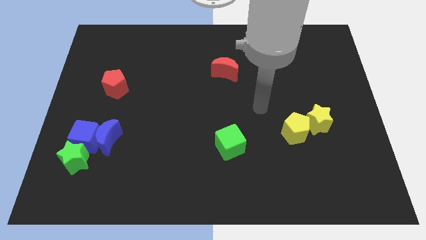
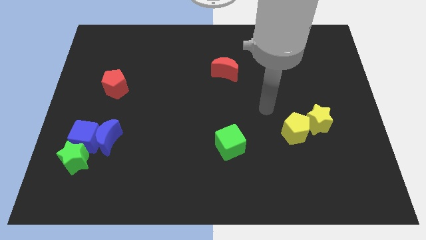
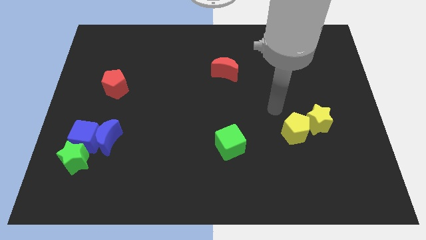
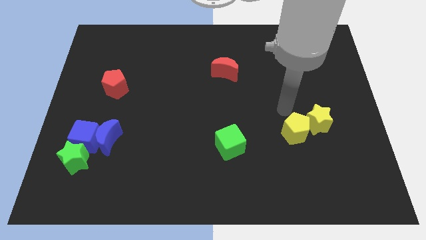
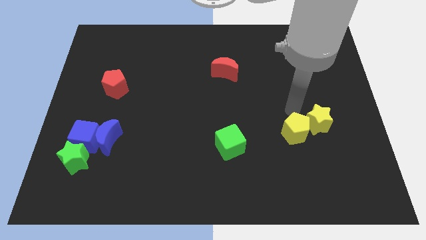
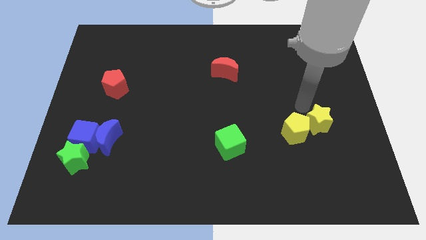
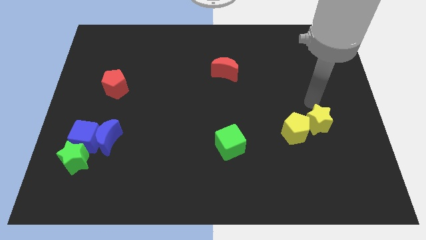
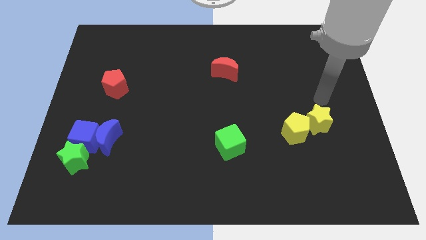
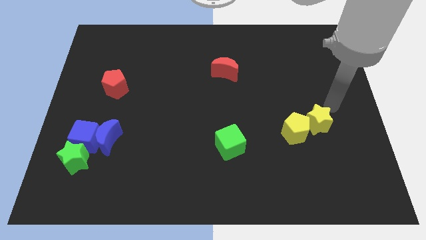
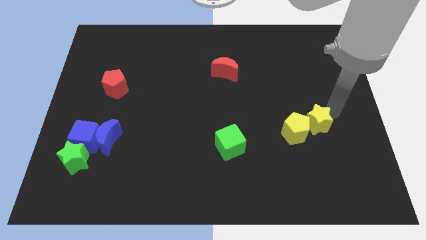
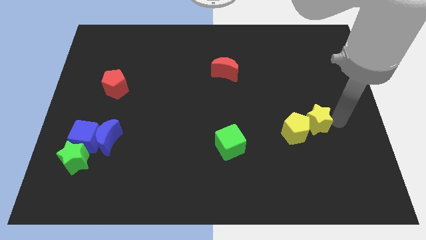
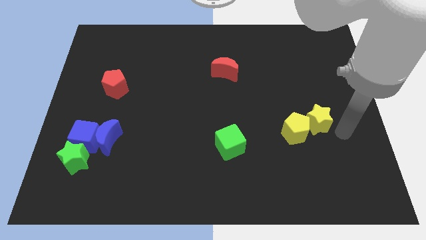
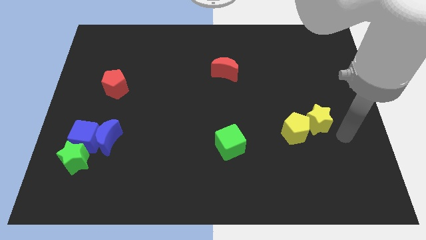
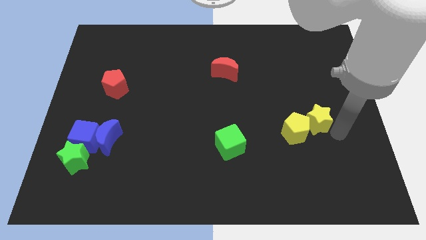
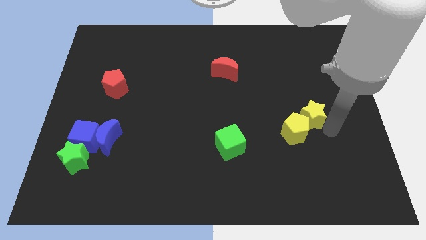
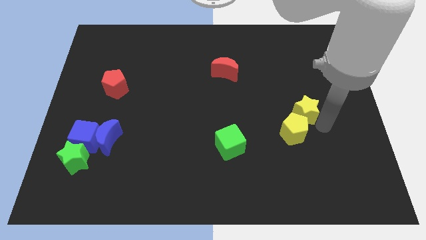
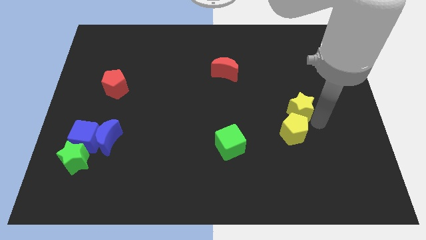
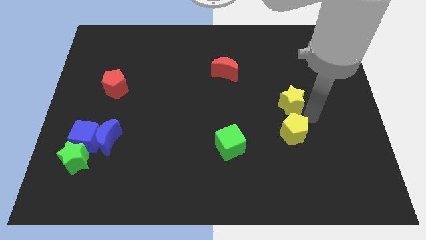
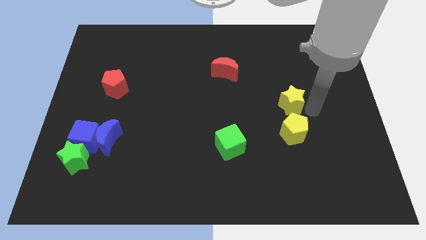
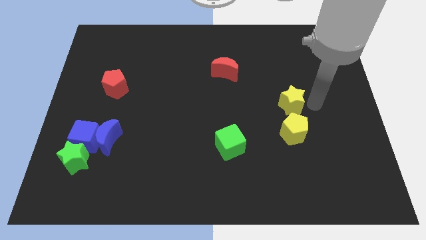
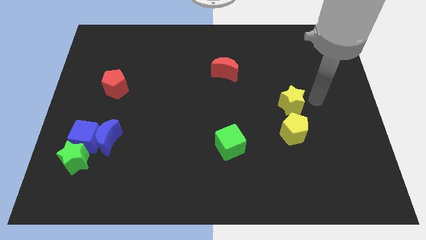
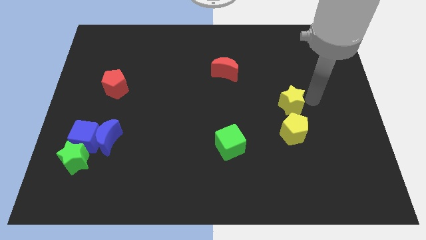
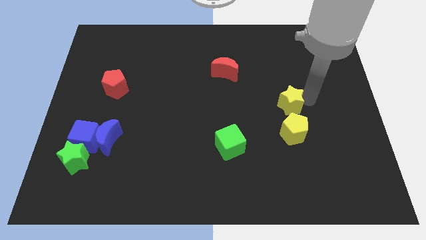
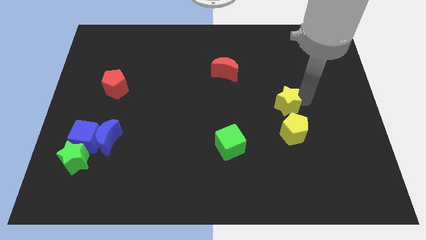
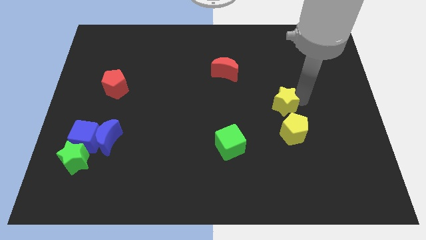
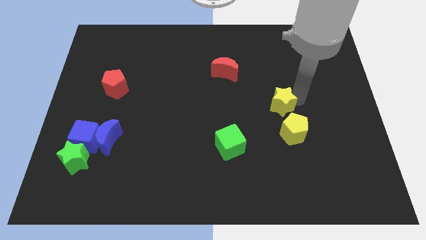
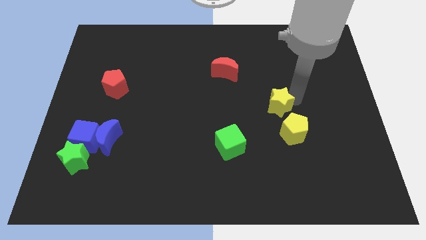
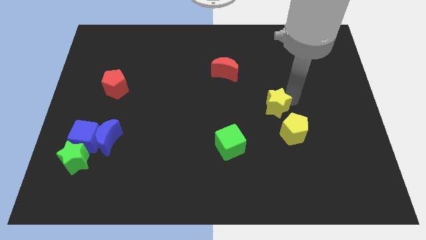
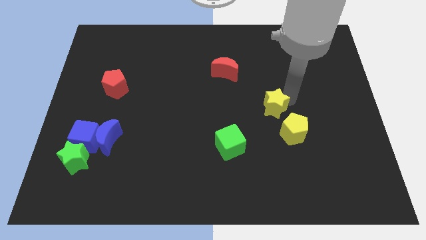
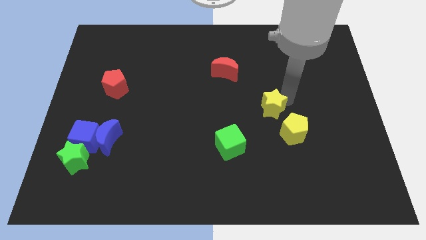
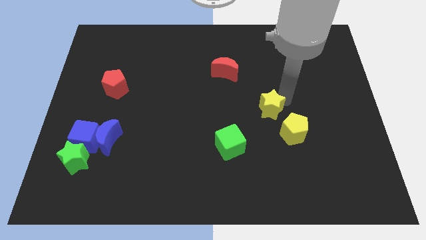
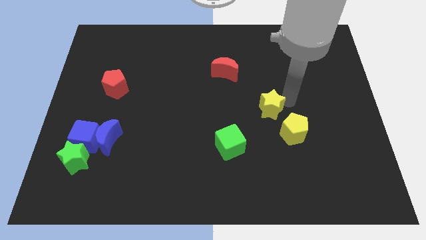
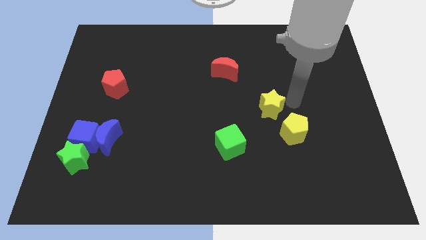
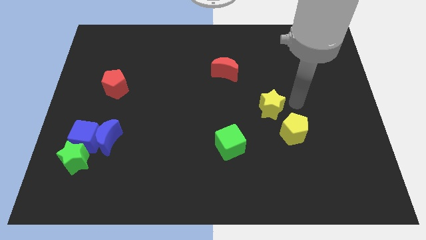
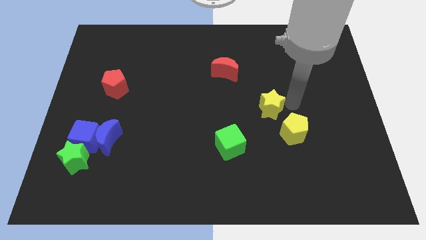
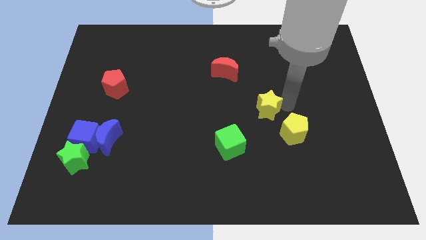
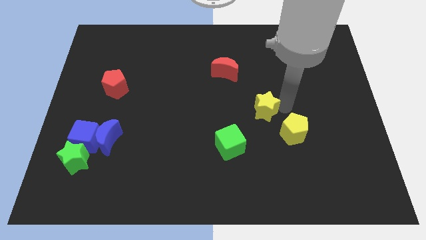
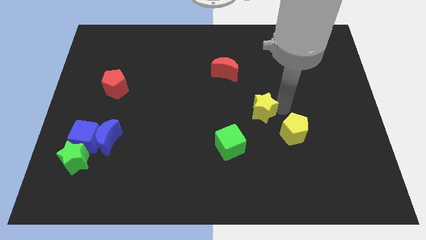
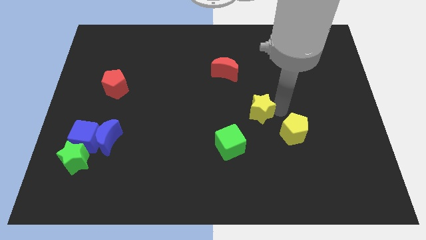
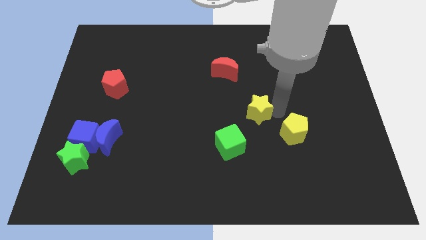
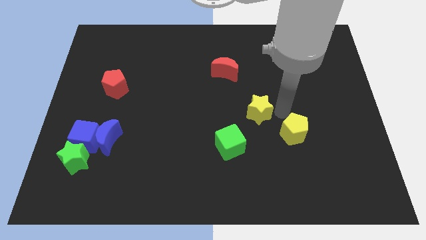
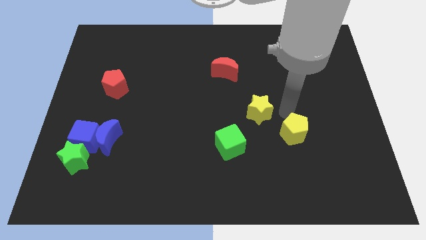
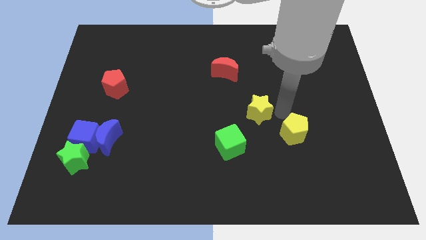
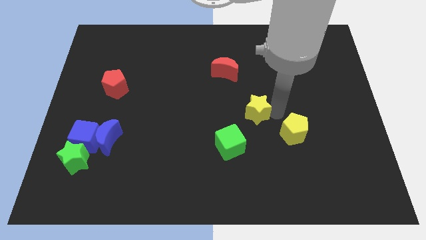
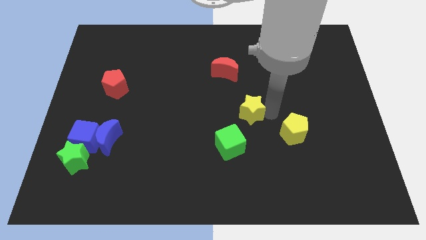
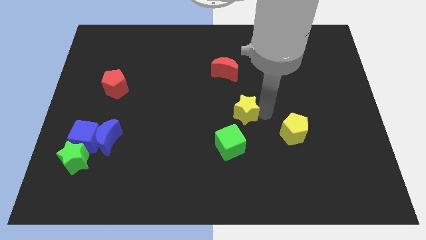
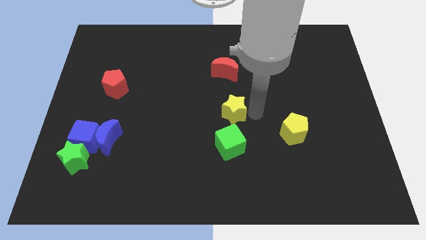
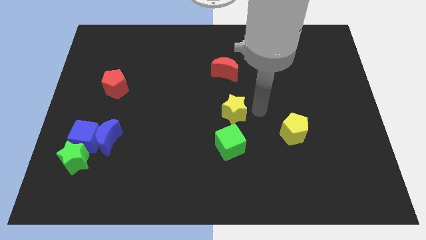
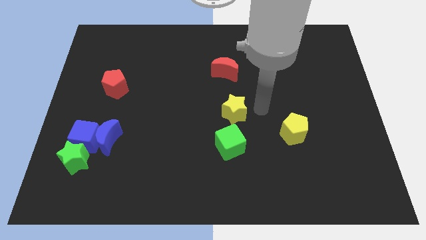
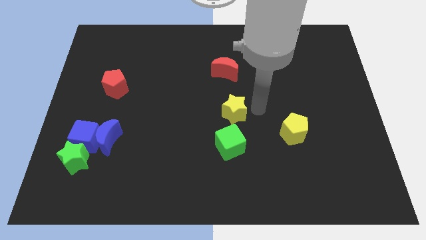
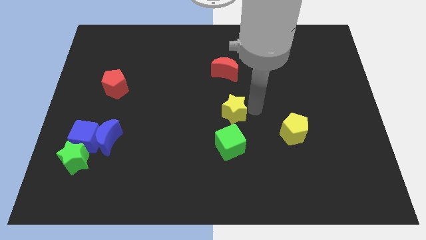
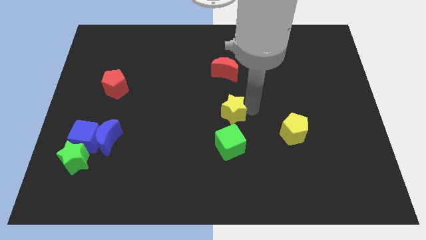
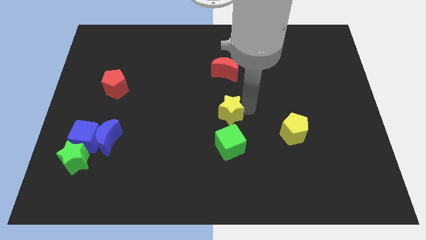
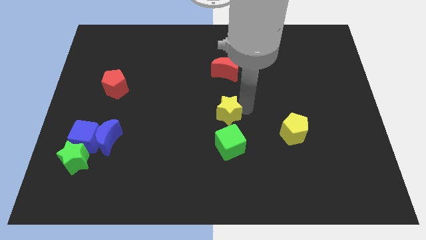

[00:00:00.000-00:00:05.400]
push the yellow star left

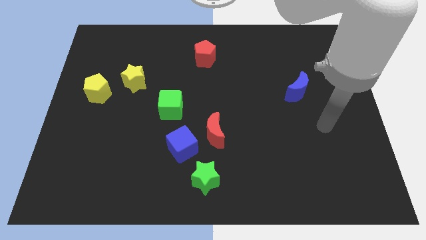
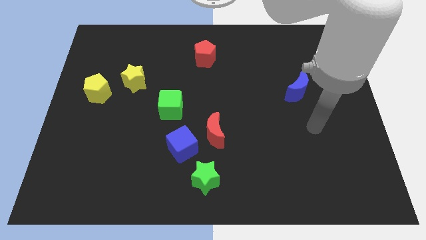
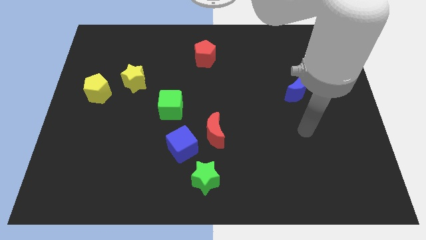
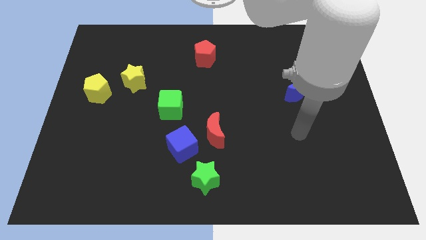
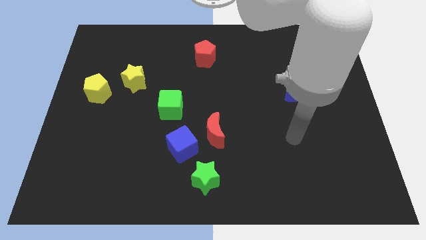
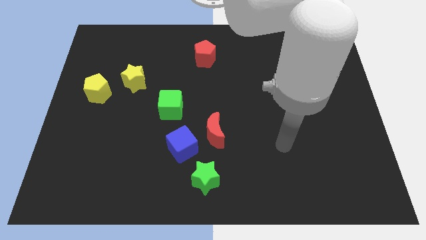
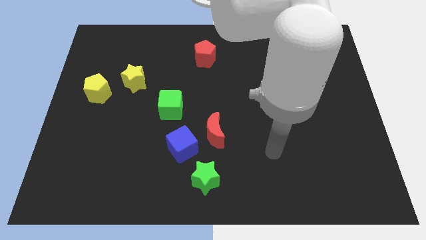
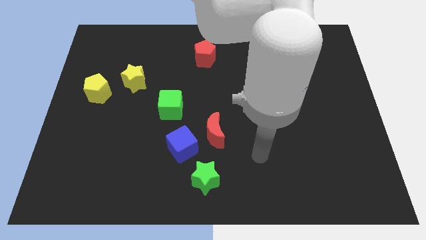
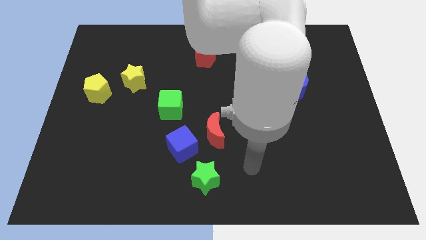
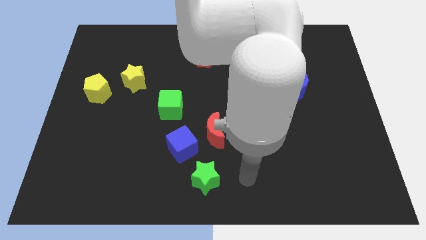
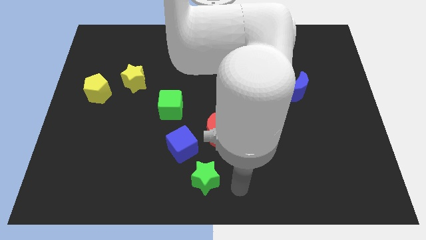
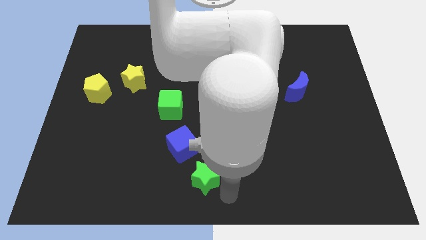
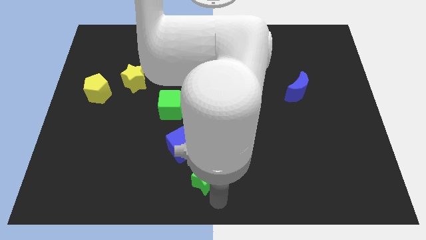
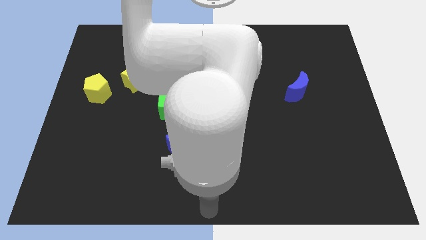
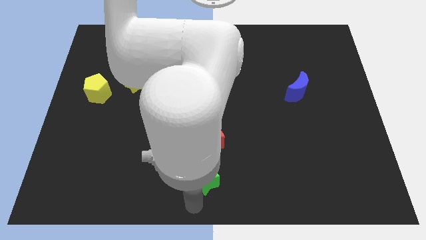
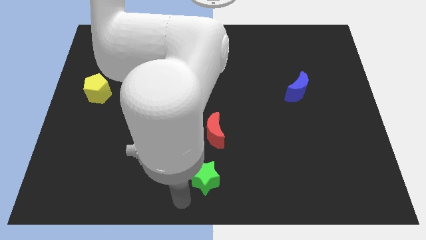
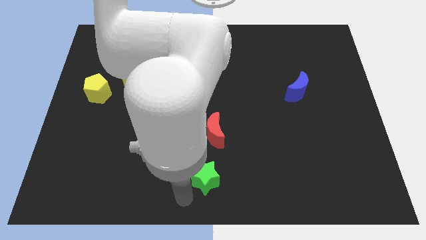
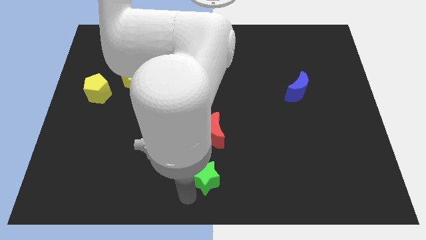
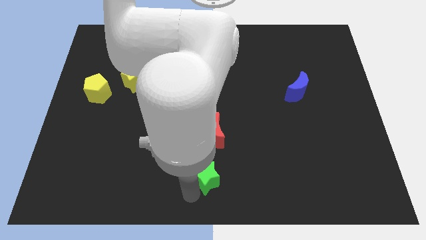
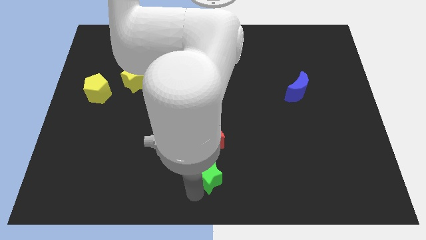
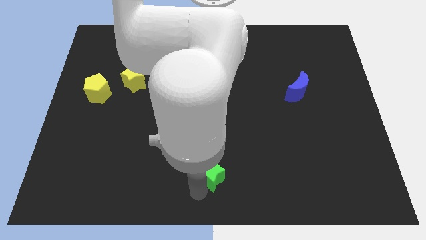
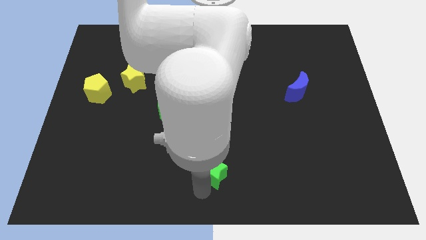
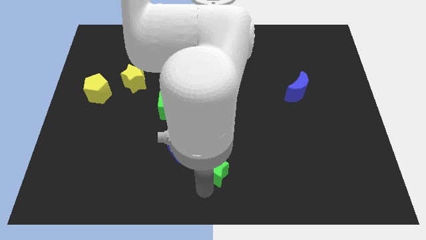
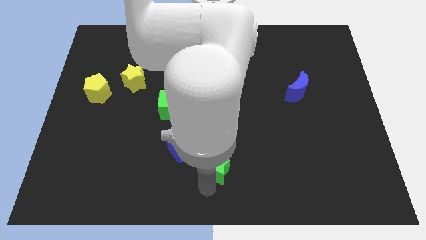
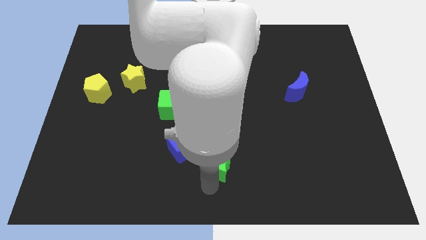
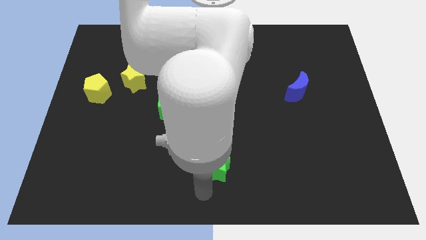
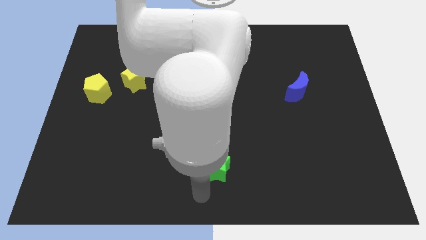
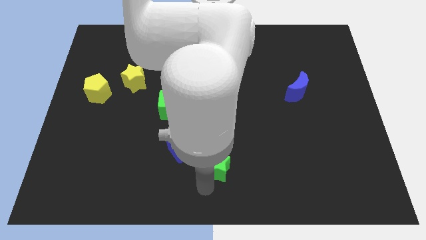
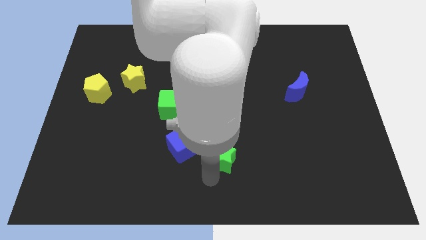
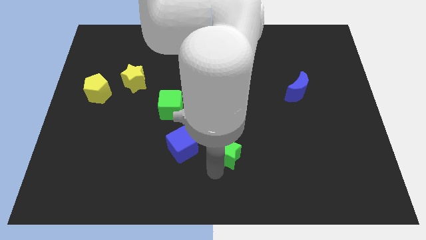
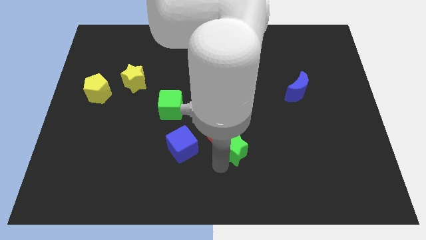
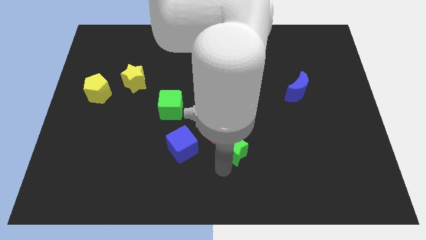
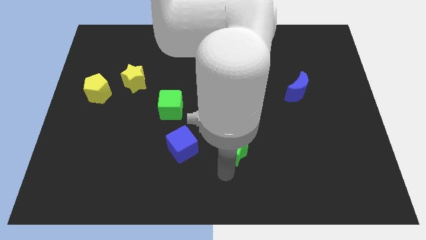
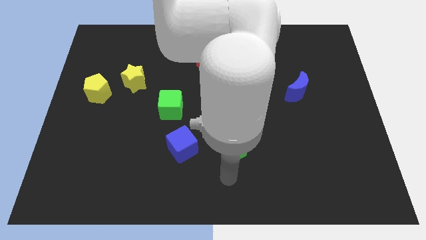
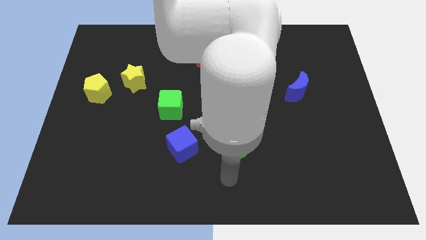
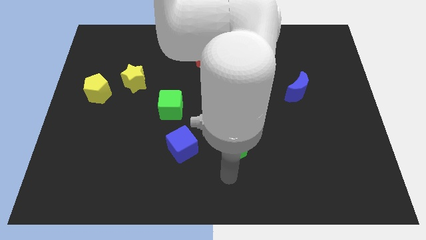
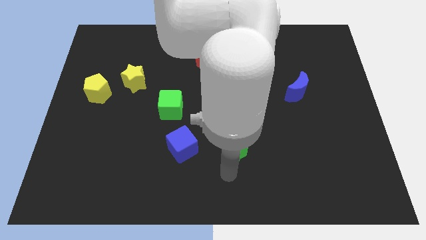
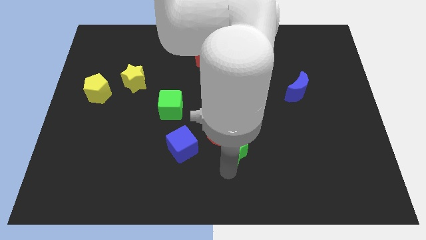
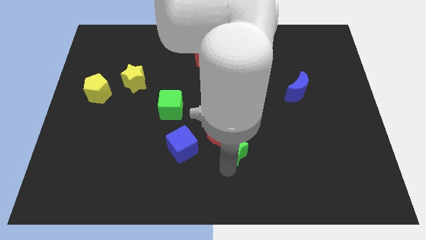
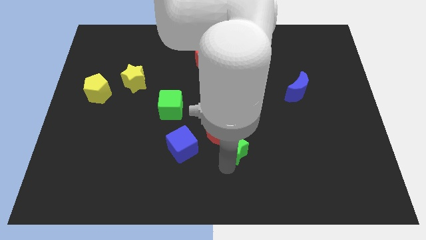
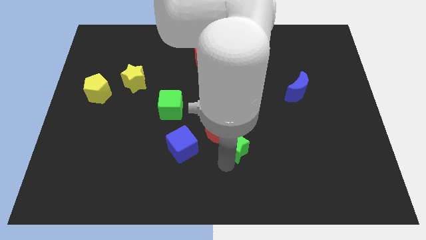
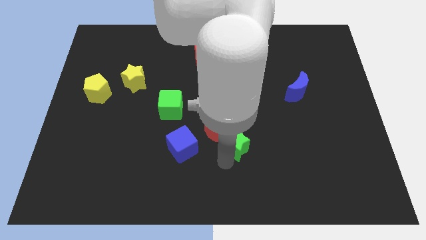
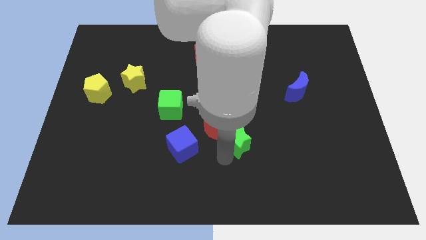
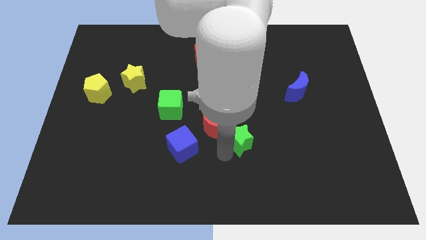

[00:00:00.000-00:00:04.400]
slide the green star a little bit up
